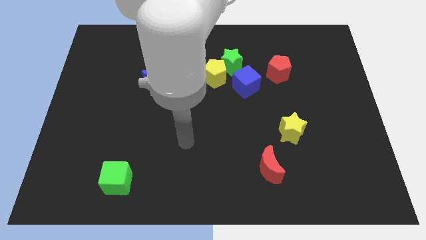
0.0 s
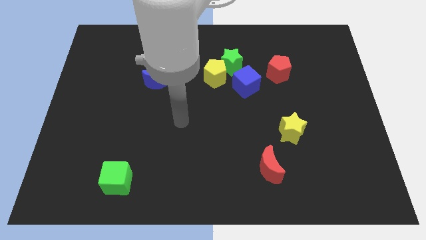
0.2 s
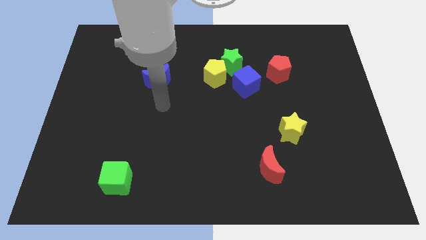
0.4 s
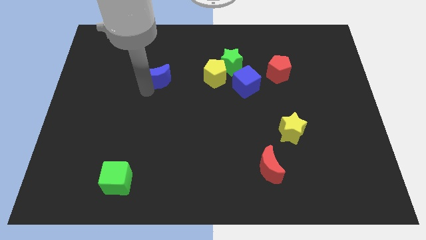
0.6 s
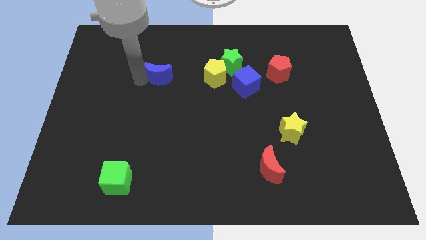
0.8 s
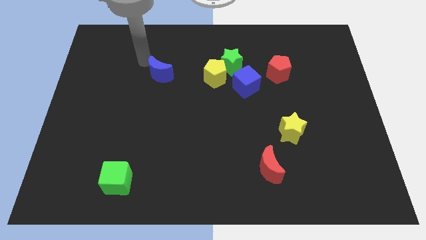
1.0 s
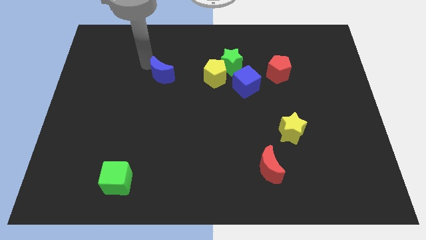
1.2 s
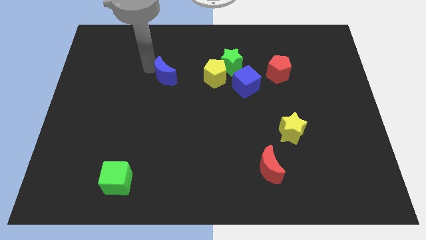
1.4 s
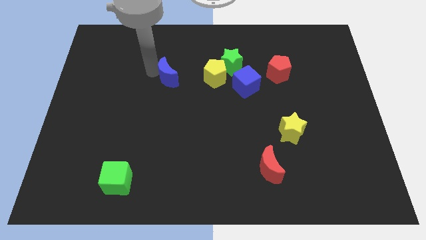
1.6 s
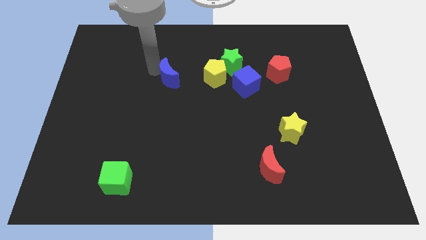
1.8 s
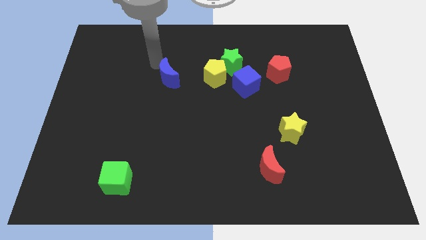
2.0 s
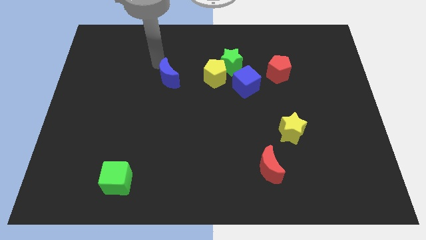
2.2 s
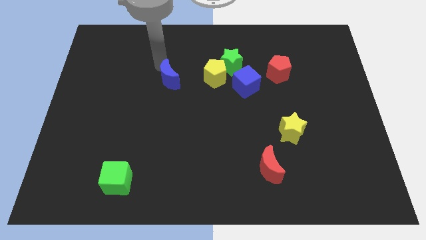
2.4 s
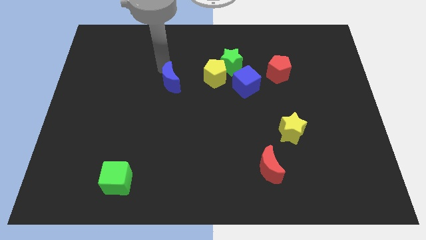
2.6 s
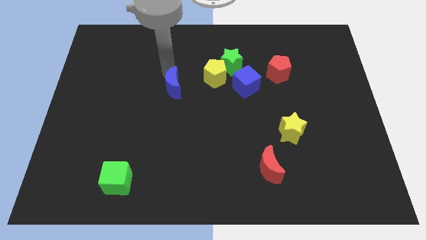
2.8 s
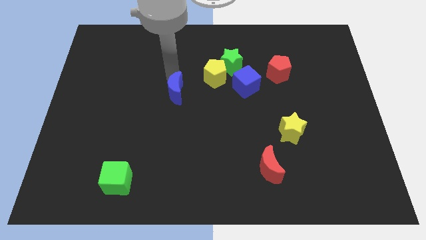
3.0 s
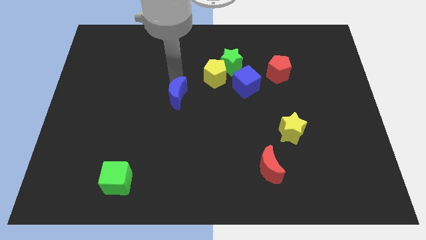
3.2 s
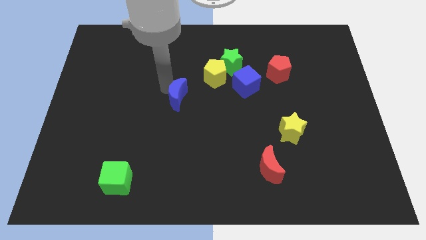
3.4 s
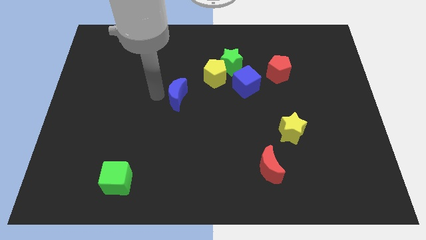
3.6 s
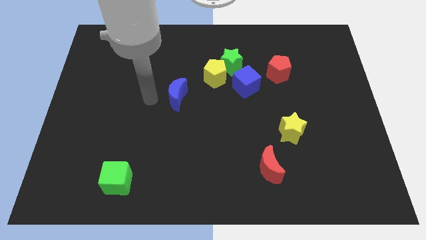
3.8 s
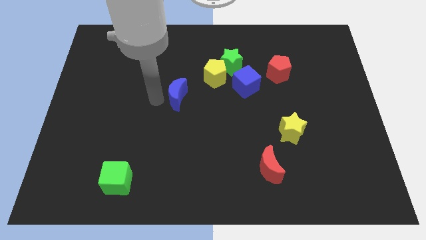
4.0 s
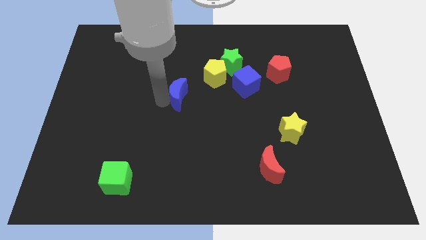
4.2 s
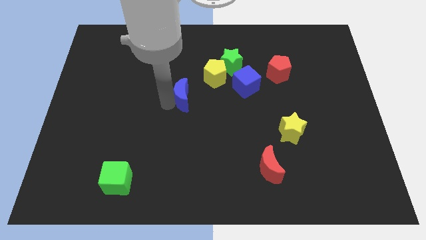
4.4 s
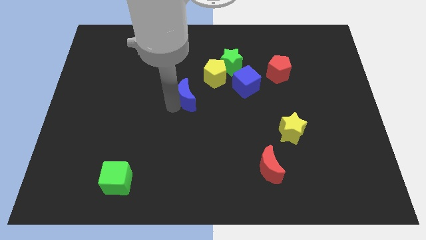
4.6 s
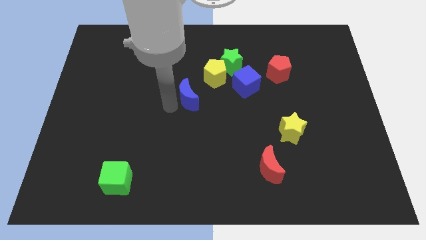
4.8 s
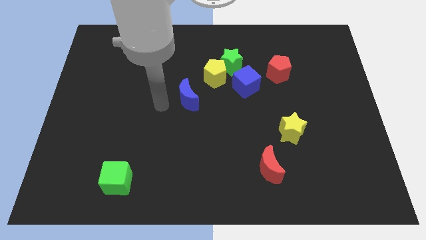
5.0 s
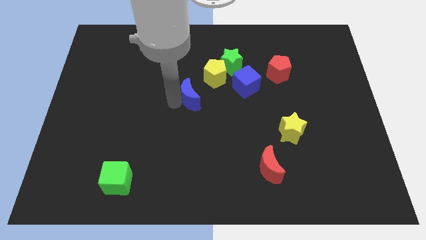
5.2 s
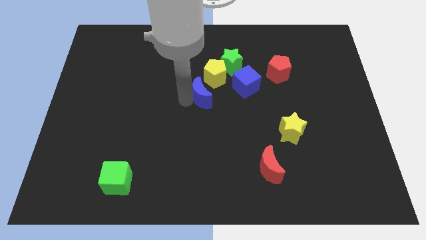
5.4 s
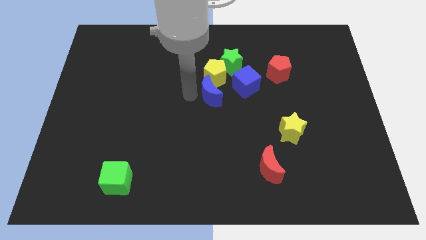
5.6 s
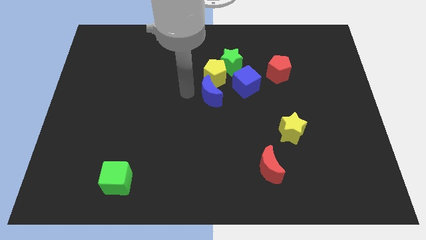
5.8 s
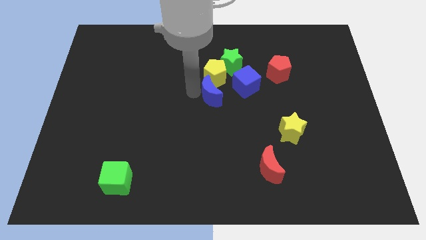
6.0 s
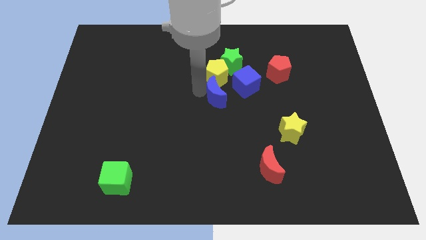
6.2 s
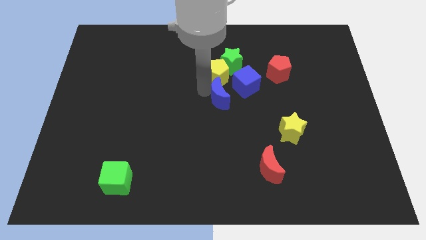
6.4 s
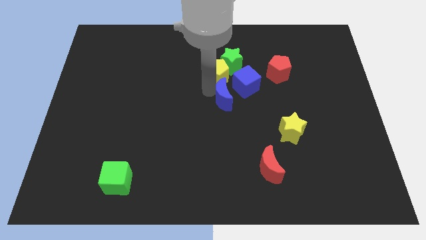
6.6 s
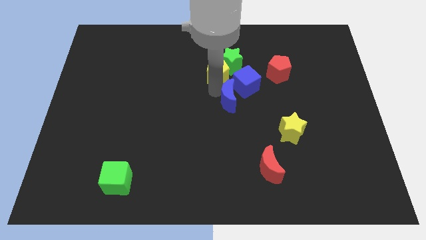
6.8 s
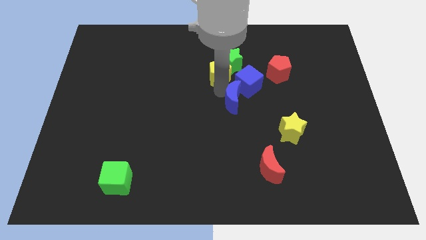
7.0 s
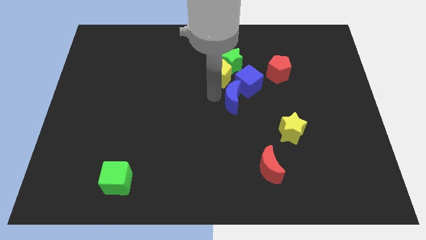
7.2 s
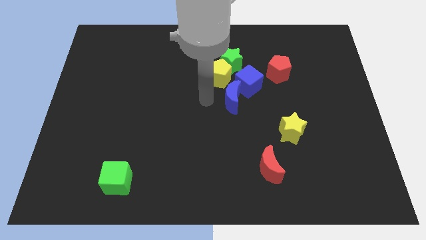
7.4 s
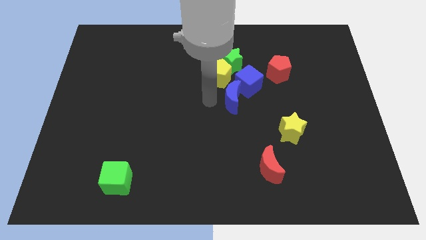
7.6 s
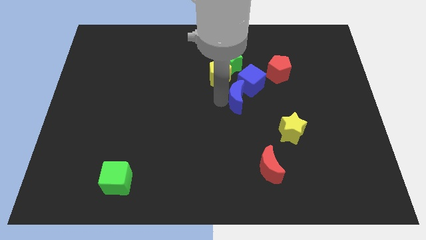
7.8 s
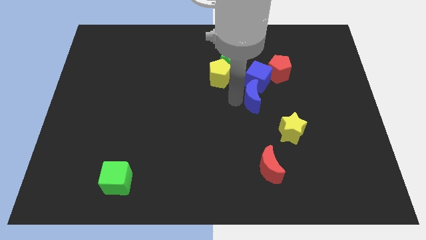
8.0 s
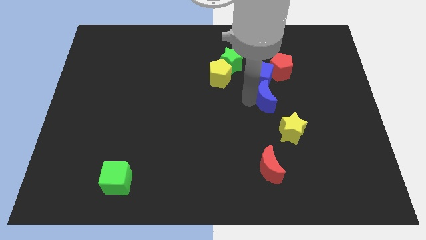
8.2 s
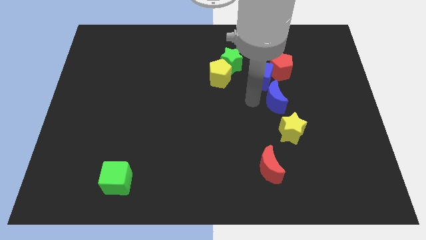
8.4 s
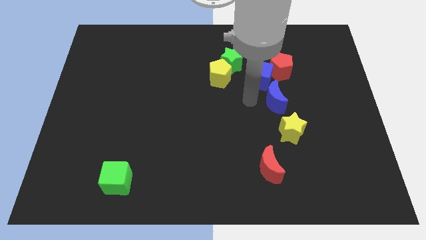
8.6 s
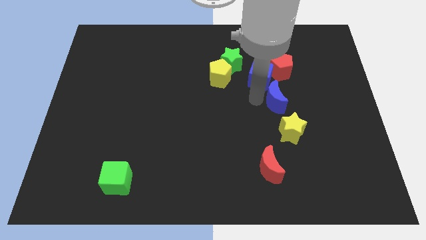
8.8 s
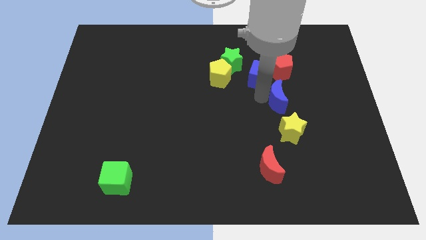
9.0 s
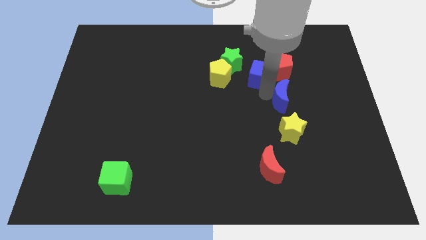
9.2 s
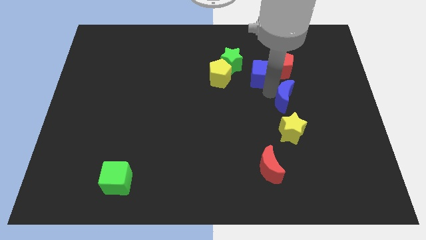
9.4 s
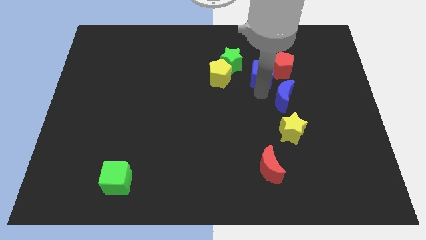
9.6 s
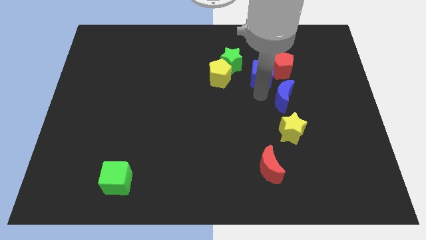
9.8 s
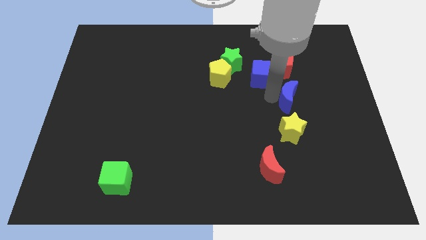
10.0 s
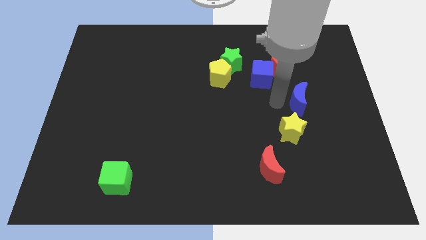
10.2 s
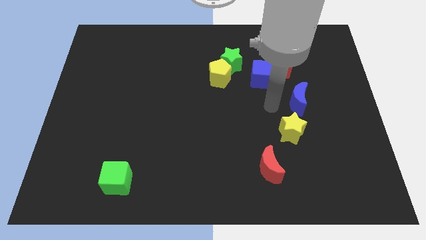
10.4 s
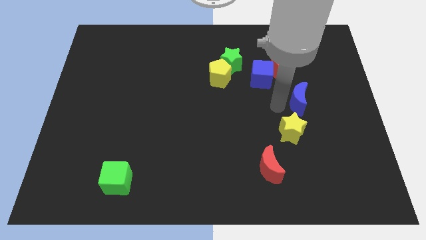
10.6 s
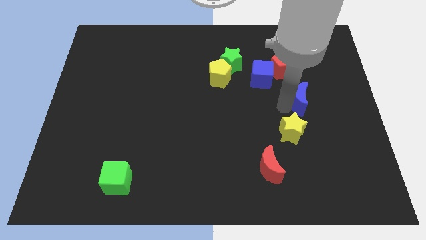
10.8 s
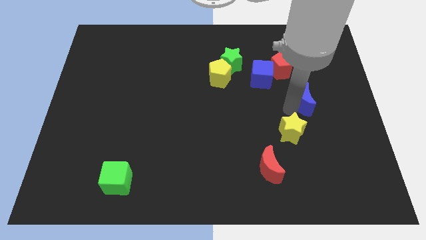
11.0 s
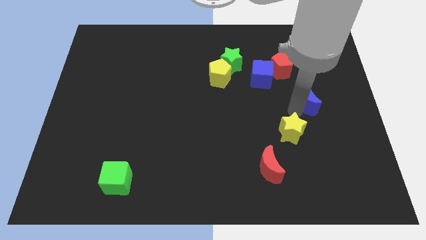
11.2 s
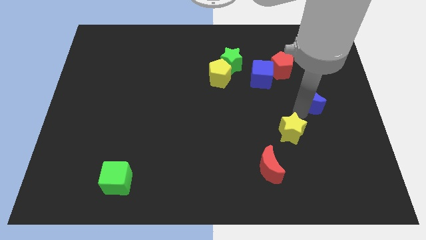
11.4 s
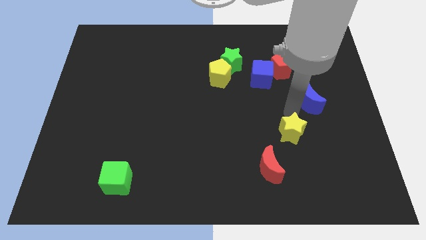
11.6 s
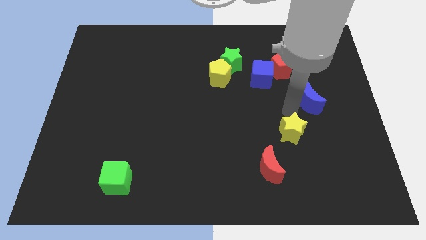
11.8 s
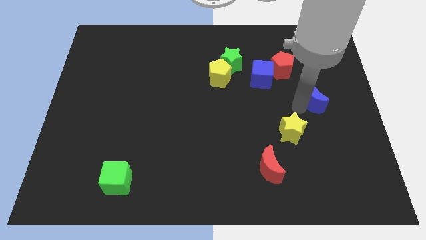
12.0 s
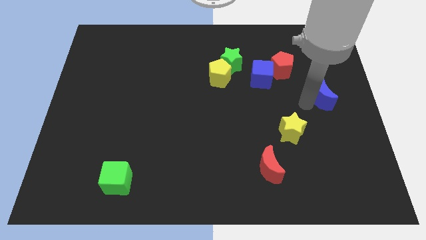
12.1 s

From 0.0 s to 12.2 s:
move the blue moon to the right side

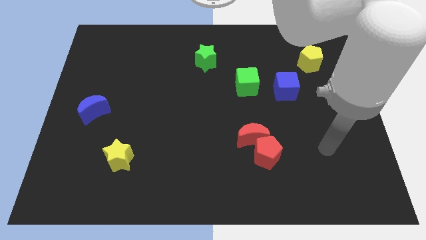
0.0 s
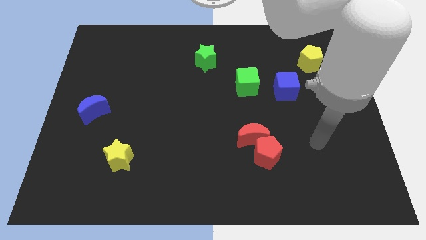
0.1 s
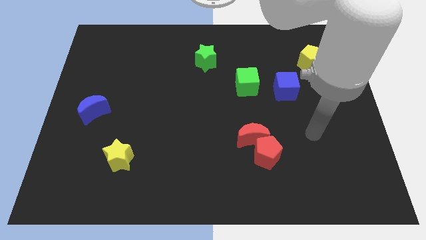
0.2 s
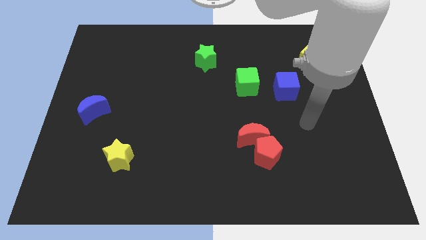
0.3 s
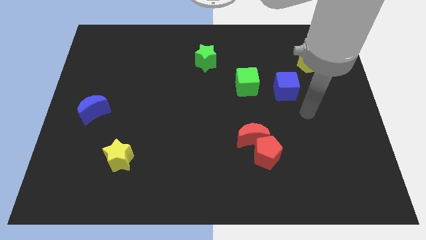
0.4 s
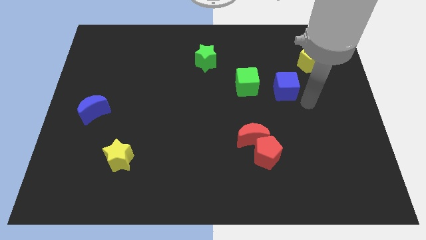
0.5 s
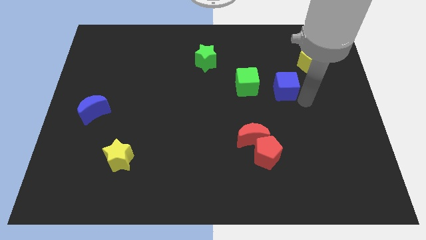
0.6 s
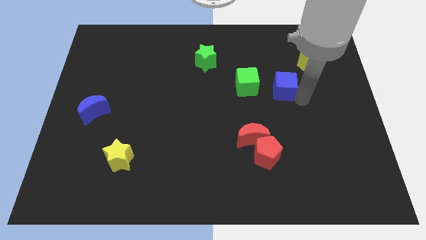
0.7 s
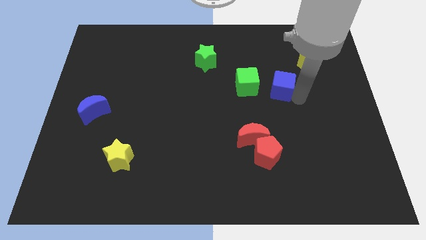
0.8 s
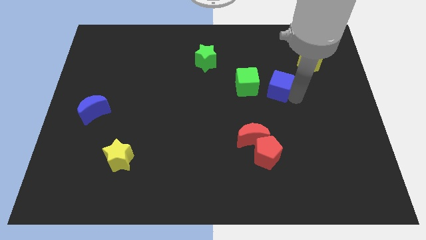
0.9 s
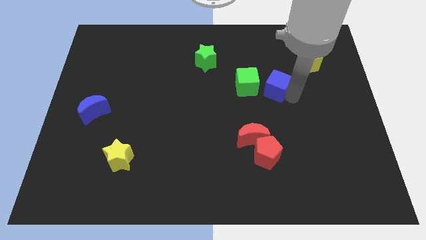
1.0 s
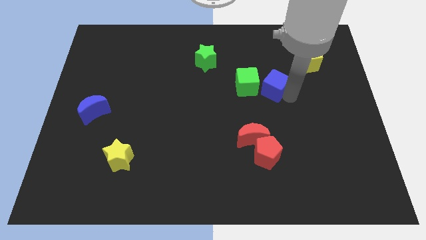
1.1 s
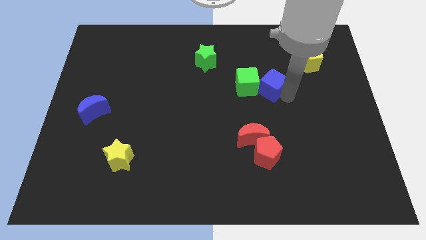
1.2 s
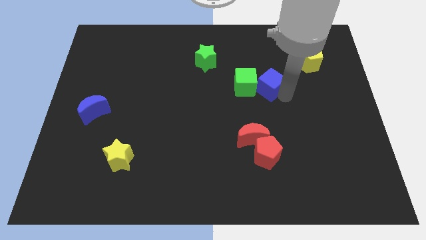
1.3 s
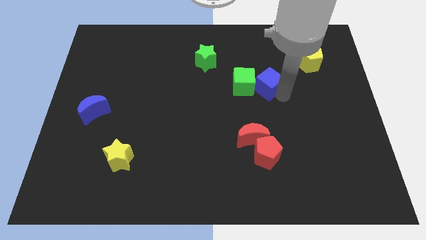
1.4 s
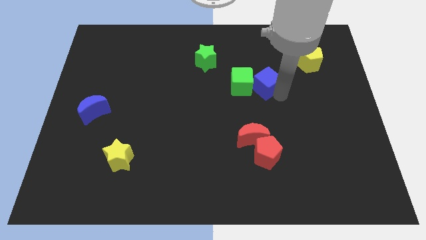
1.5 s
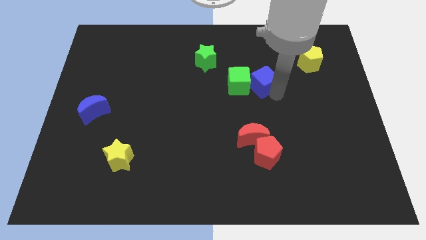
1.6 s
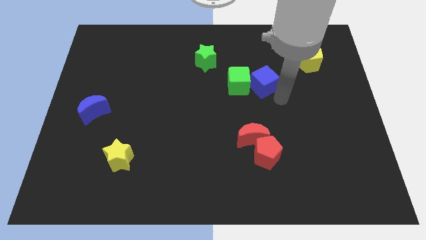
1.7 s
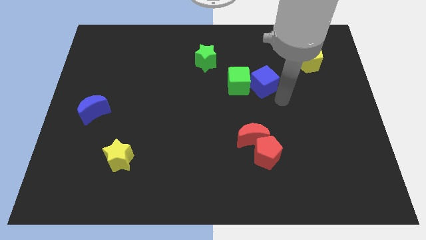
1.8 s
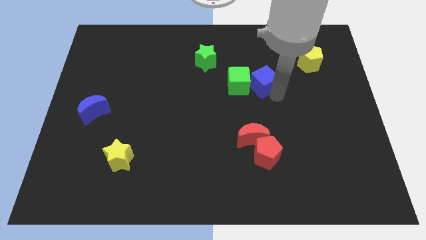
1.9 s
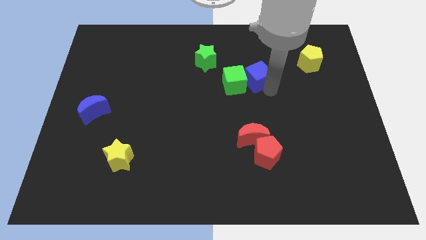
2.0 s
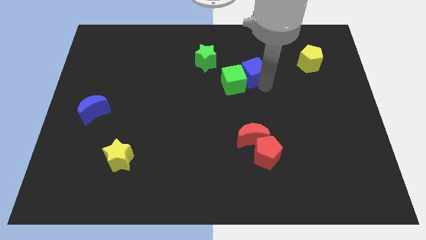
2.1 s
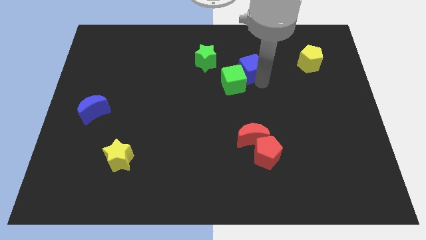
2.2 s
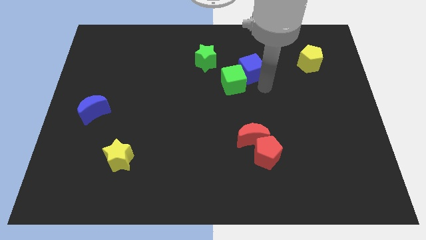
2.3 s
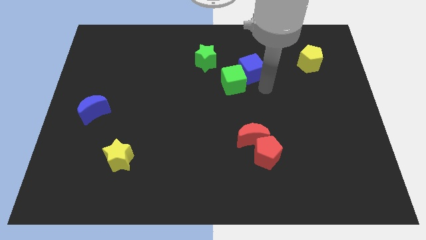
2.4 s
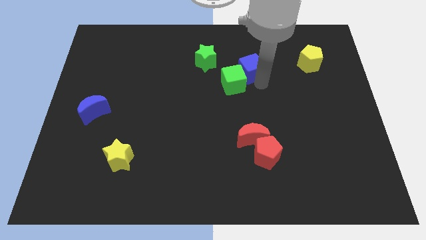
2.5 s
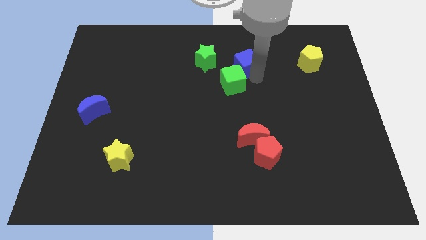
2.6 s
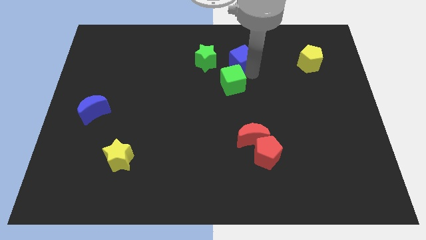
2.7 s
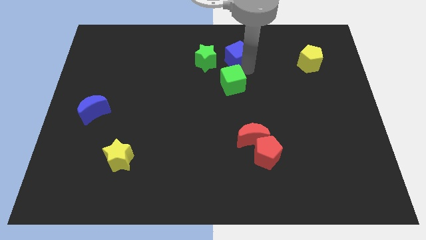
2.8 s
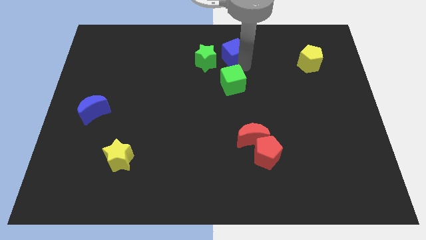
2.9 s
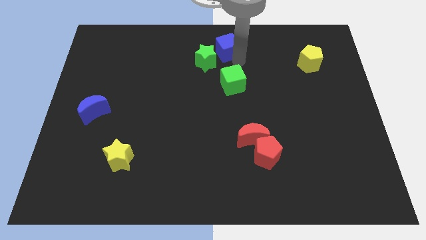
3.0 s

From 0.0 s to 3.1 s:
push the blue cube to the towards your base
